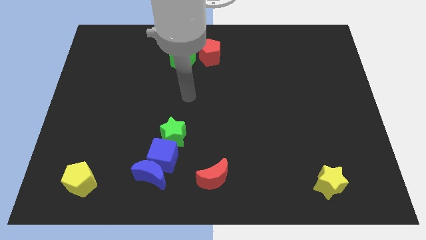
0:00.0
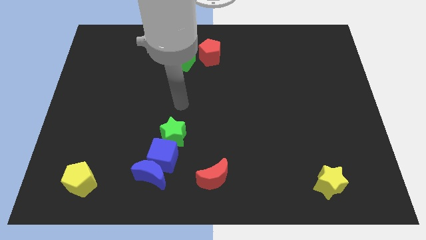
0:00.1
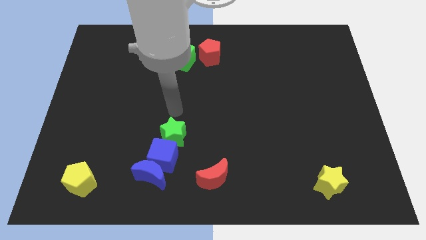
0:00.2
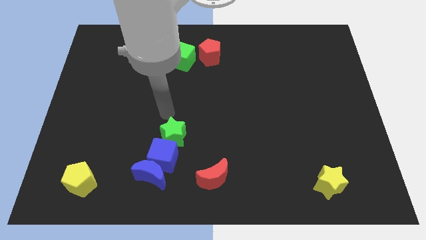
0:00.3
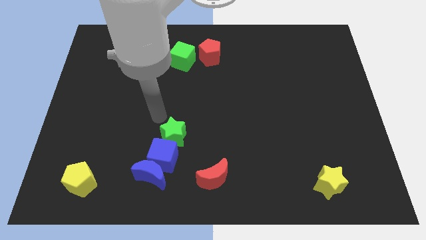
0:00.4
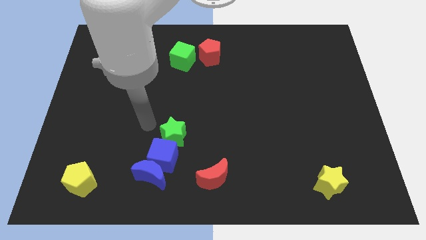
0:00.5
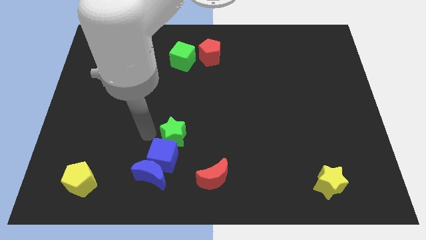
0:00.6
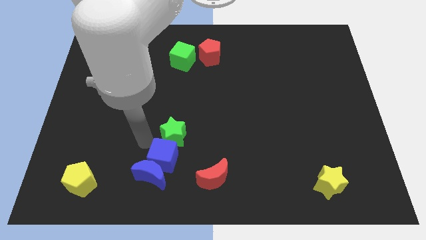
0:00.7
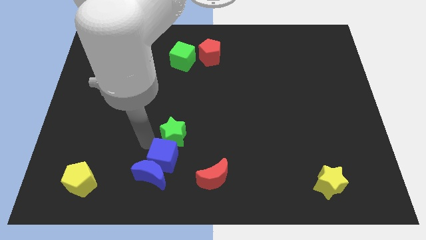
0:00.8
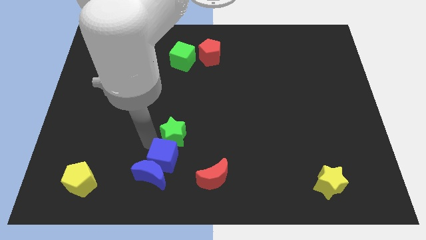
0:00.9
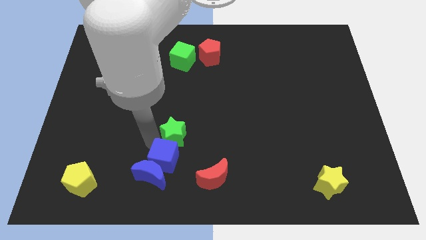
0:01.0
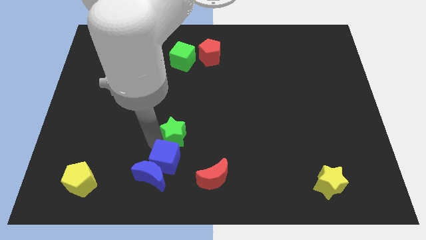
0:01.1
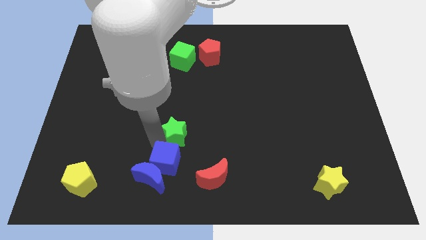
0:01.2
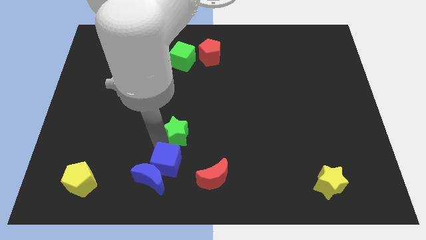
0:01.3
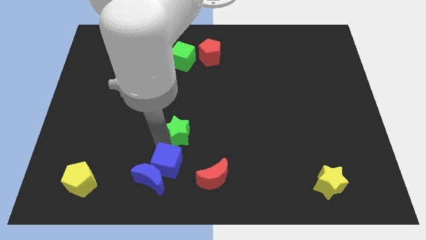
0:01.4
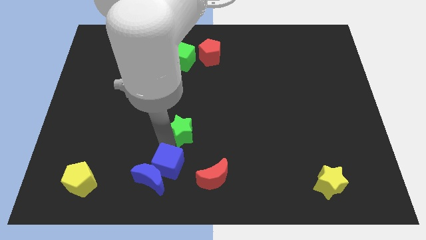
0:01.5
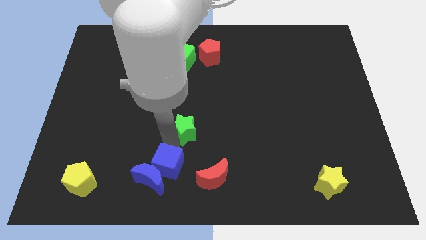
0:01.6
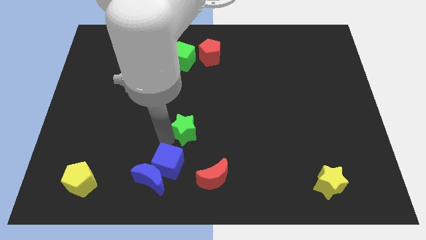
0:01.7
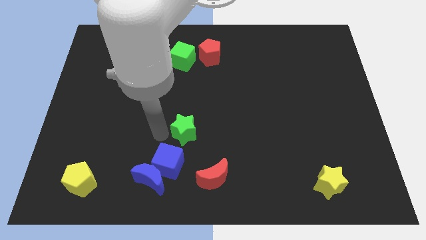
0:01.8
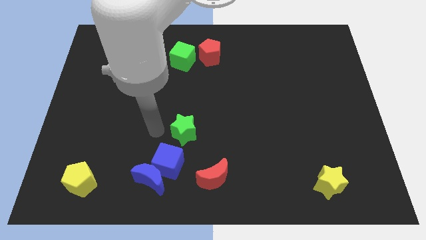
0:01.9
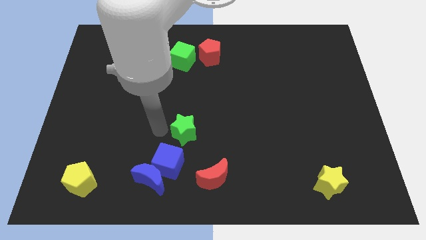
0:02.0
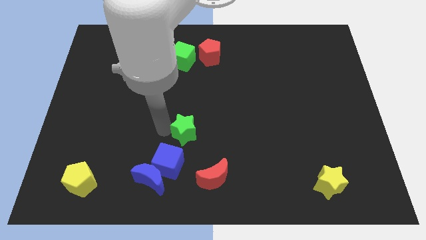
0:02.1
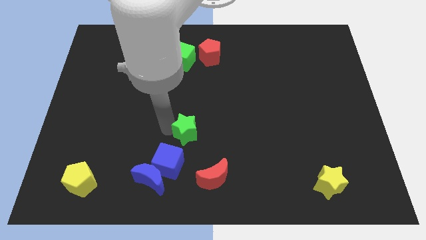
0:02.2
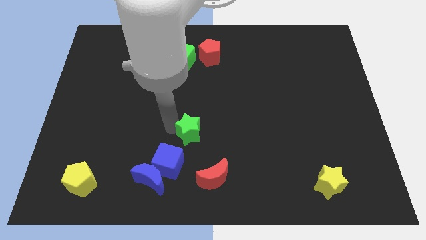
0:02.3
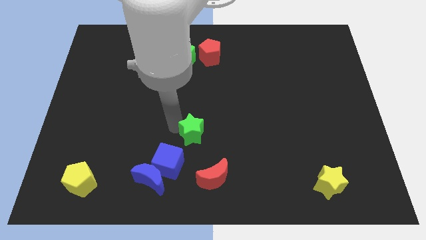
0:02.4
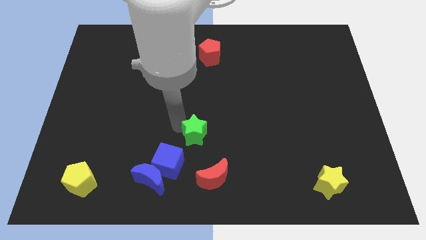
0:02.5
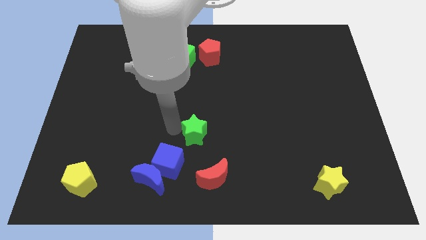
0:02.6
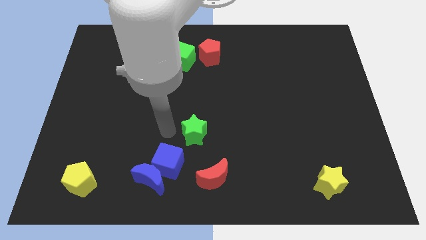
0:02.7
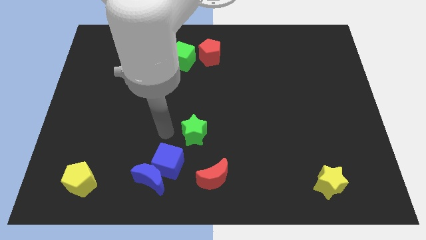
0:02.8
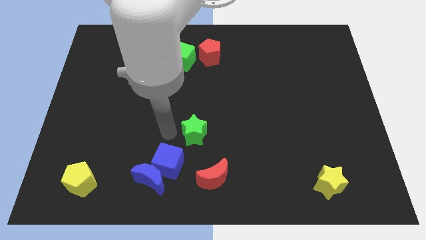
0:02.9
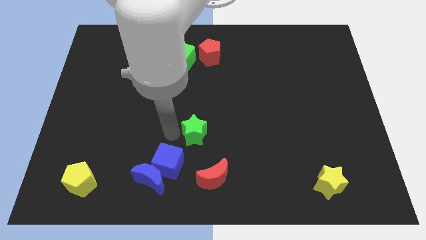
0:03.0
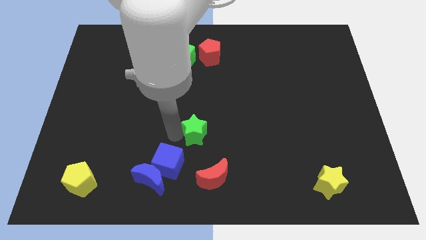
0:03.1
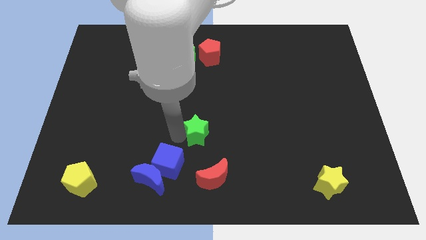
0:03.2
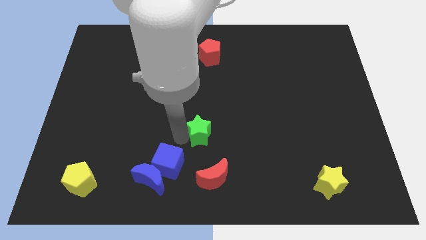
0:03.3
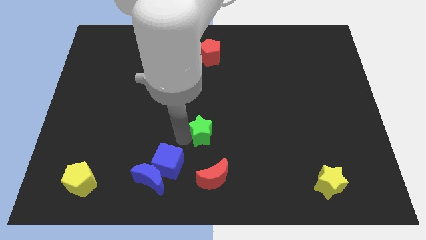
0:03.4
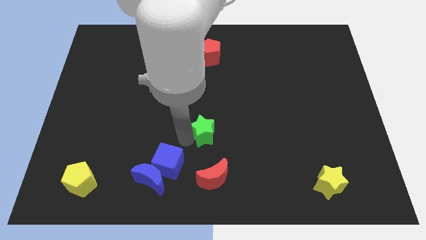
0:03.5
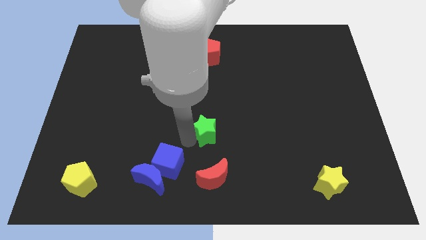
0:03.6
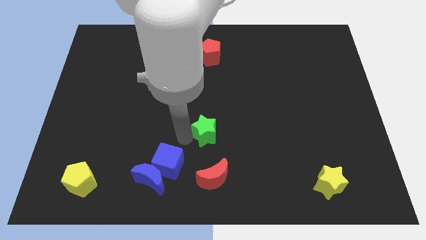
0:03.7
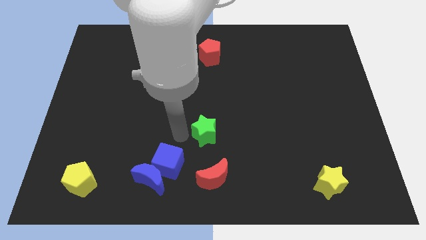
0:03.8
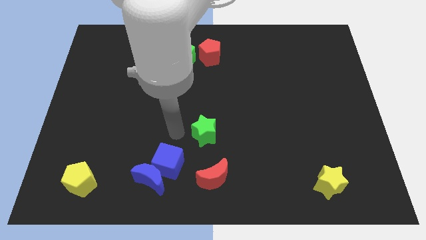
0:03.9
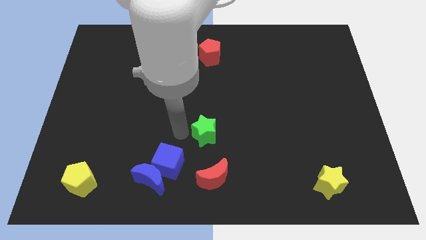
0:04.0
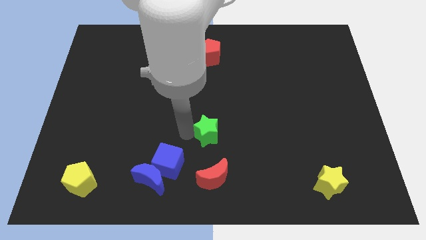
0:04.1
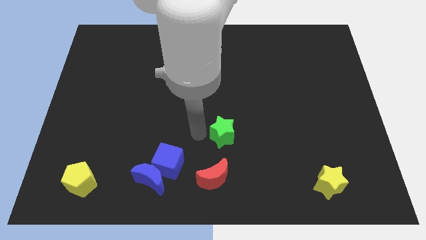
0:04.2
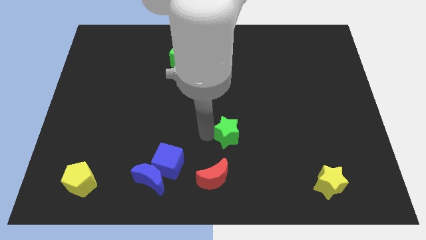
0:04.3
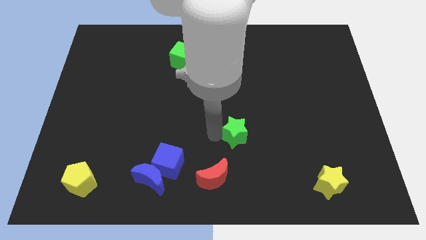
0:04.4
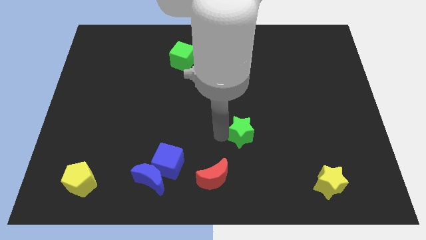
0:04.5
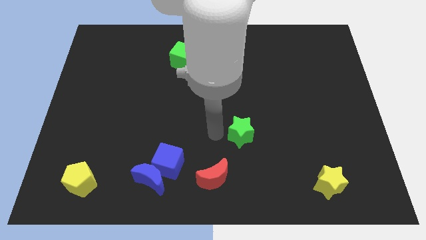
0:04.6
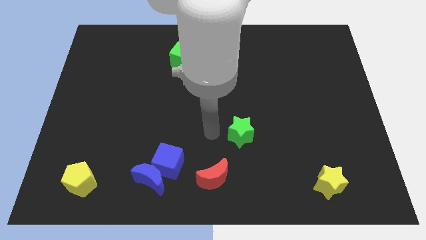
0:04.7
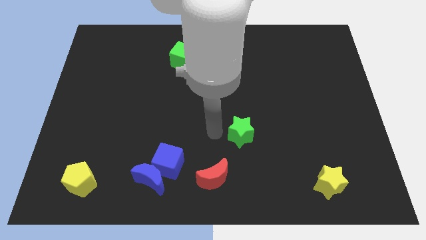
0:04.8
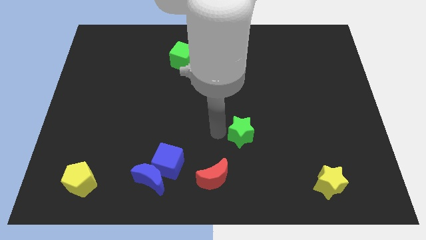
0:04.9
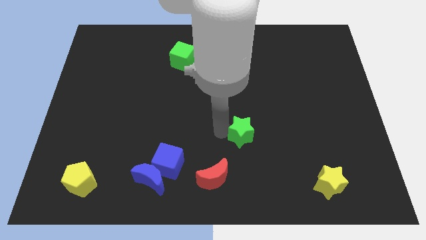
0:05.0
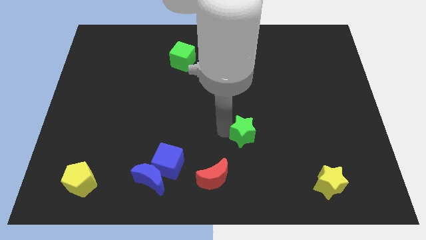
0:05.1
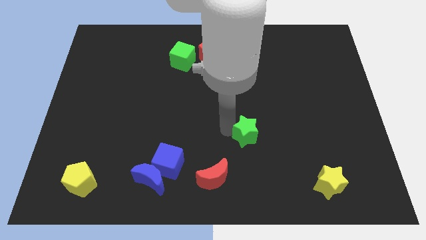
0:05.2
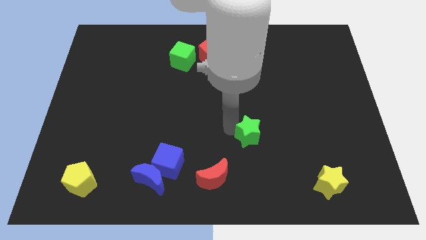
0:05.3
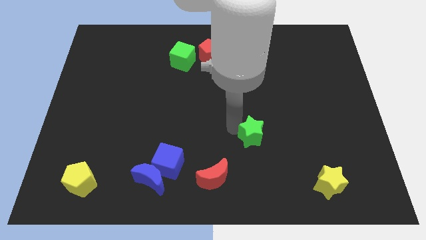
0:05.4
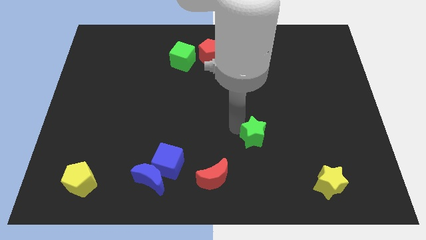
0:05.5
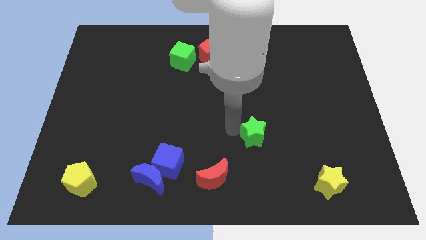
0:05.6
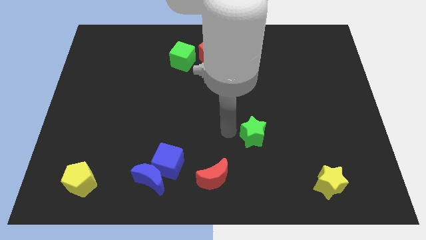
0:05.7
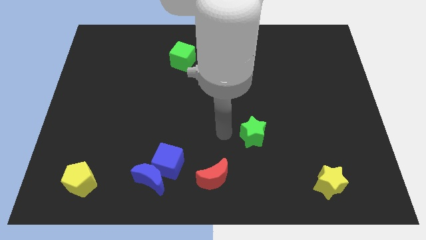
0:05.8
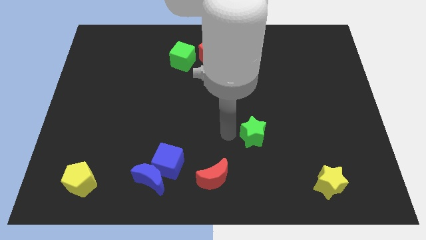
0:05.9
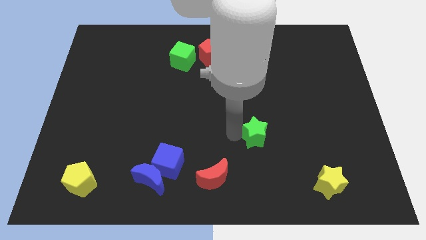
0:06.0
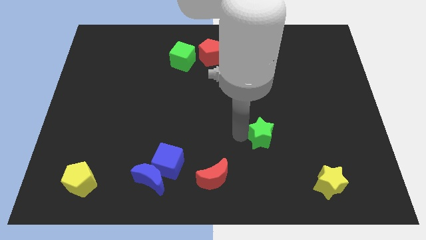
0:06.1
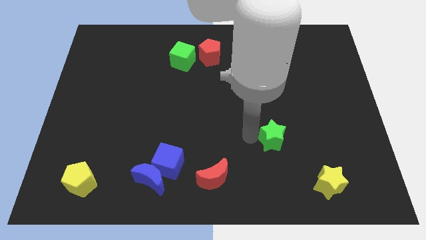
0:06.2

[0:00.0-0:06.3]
slide the green star to the right

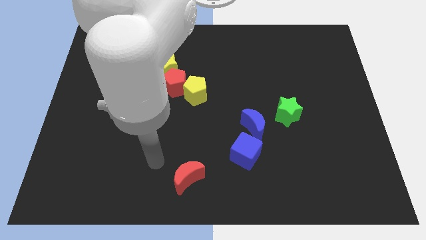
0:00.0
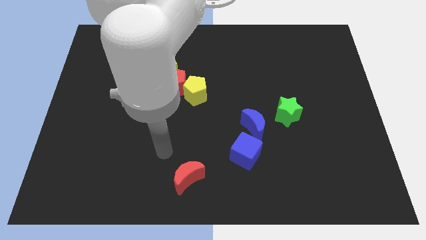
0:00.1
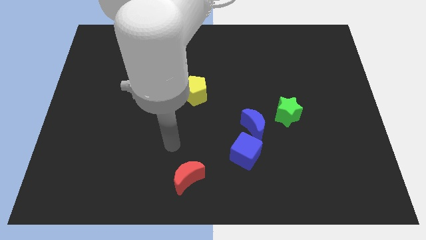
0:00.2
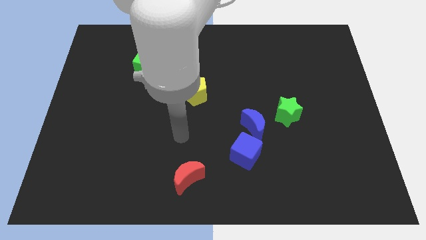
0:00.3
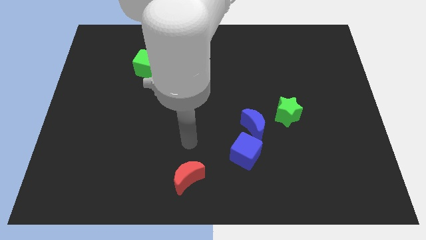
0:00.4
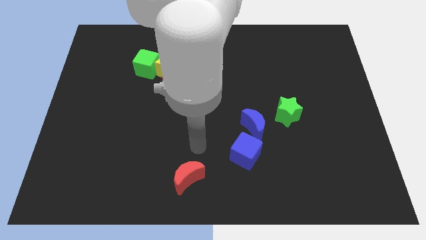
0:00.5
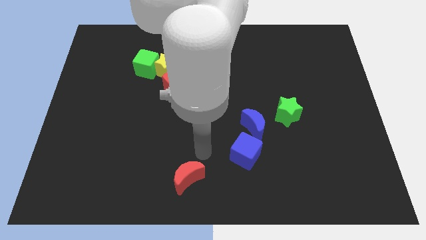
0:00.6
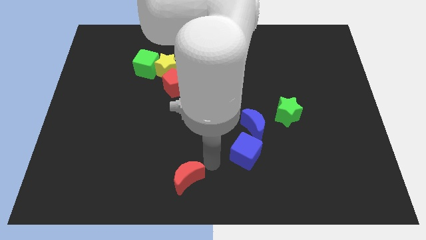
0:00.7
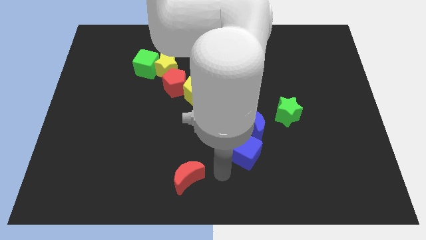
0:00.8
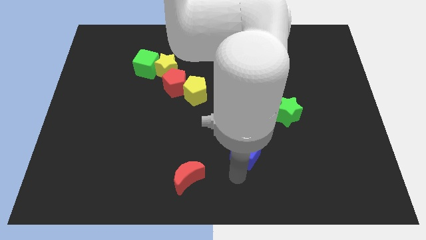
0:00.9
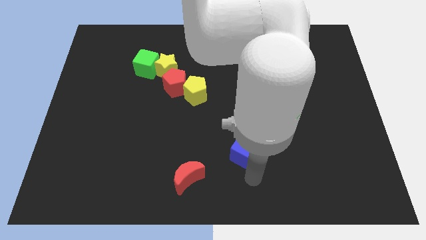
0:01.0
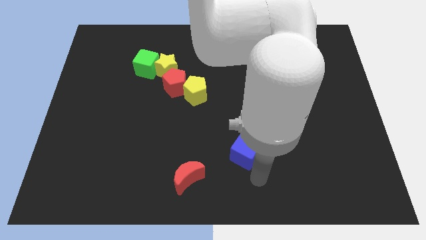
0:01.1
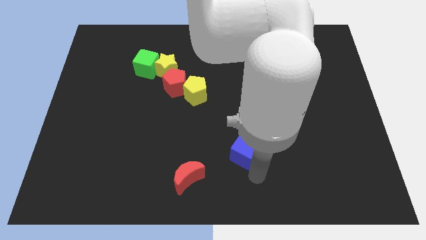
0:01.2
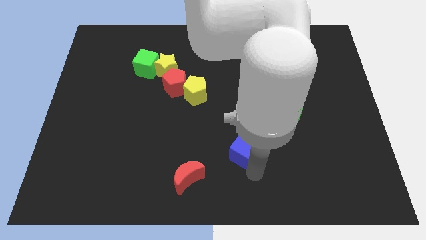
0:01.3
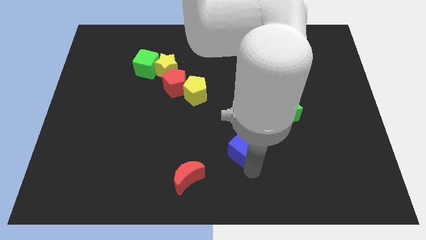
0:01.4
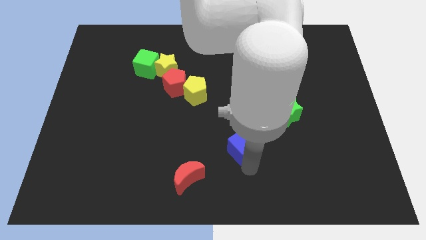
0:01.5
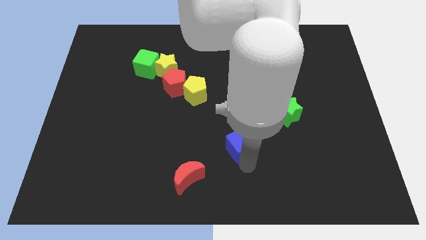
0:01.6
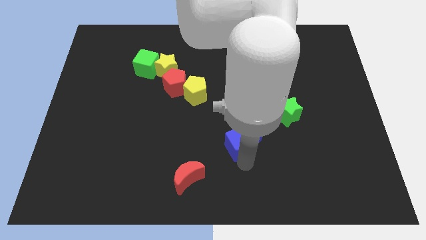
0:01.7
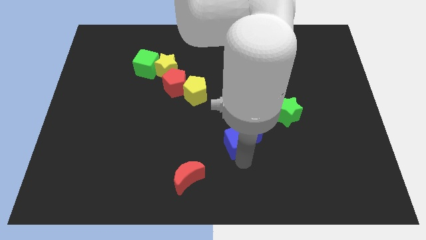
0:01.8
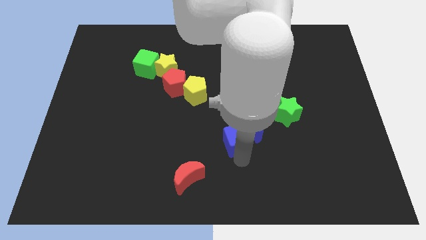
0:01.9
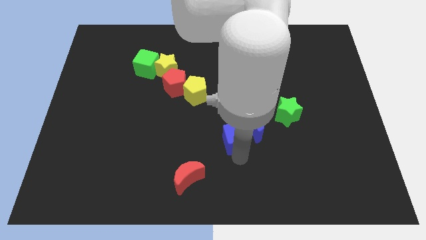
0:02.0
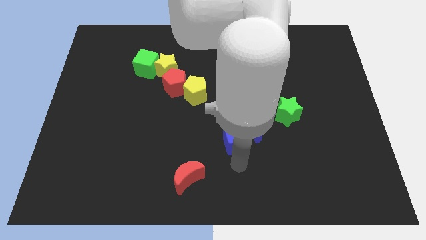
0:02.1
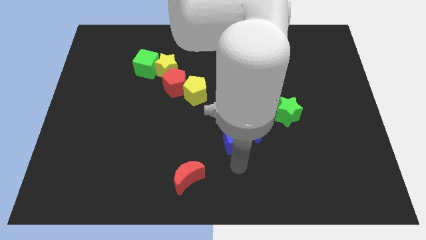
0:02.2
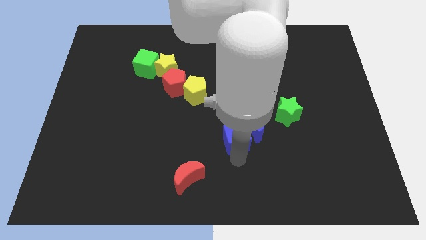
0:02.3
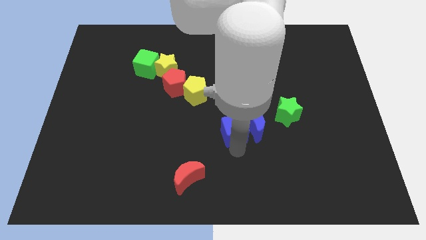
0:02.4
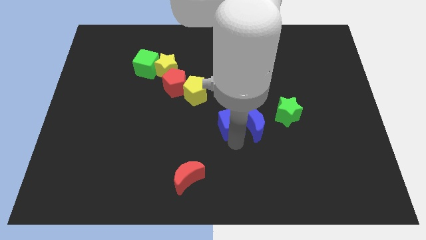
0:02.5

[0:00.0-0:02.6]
slightly push the blue cube upwards
